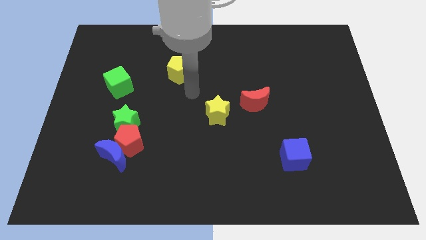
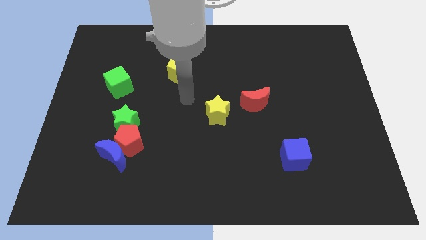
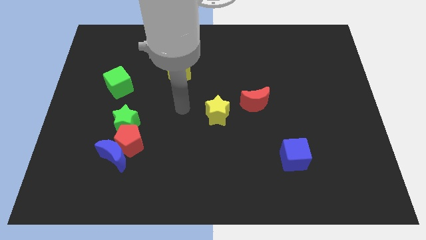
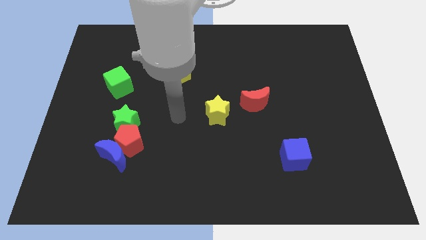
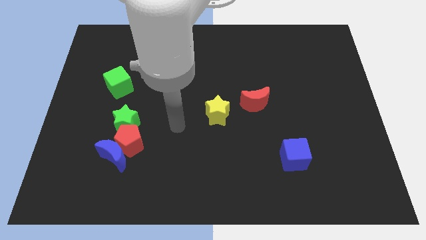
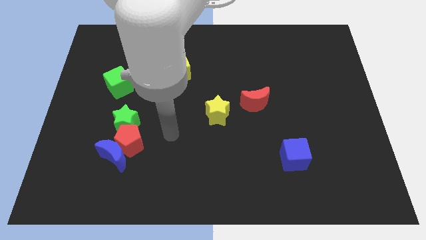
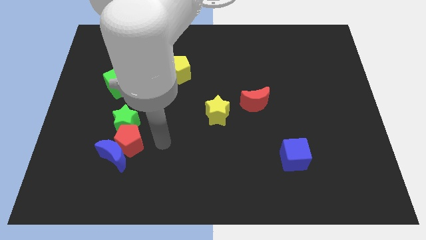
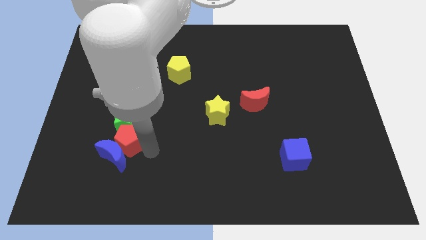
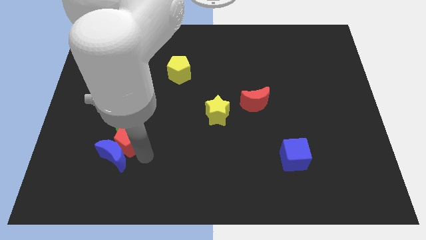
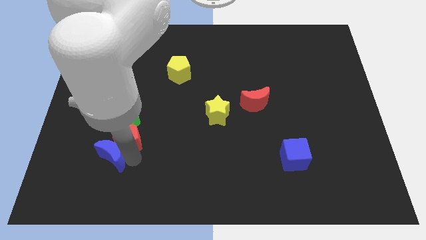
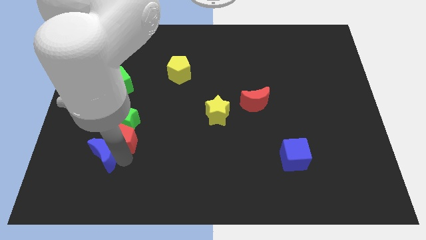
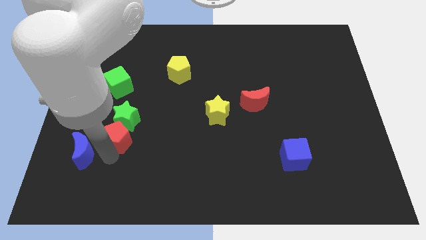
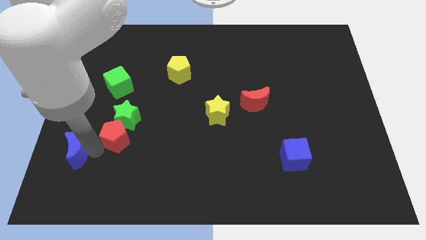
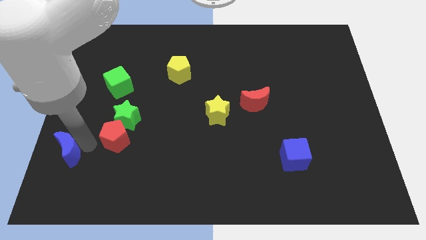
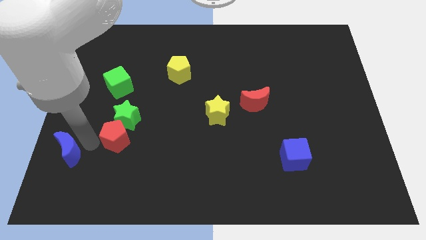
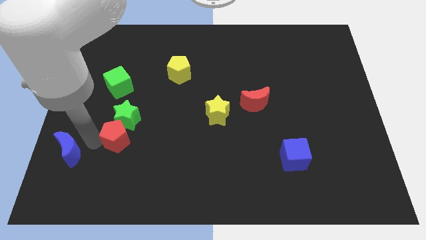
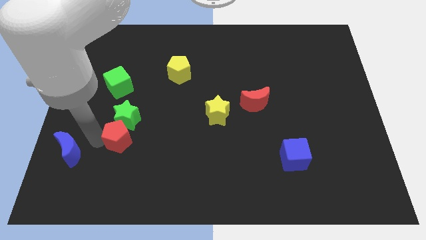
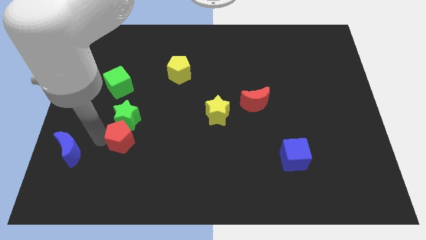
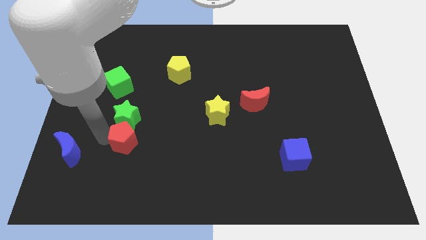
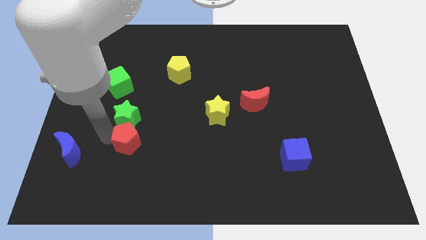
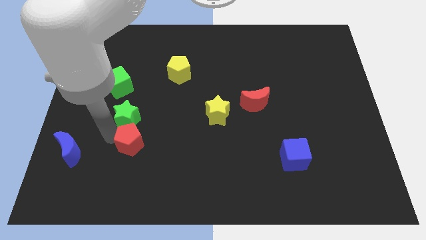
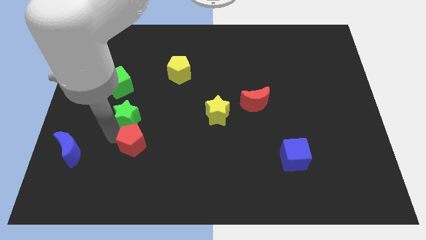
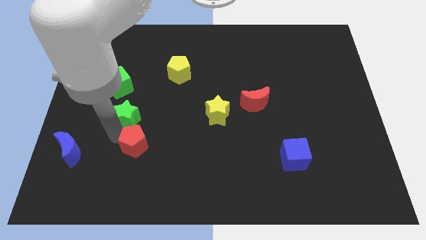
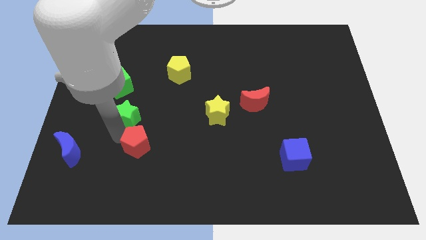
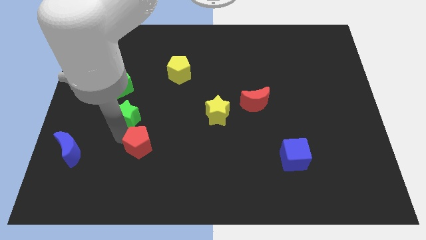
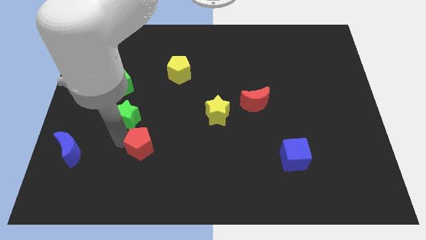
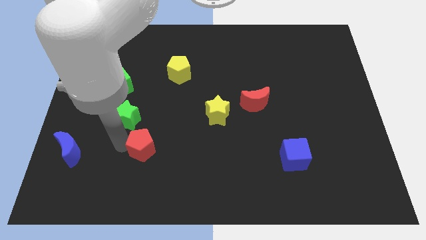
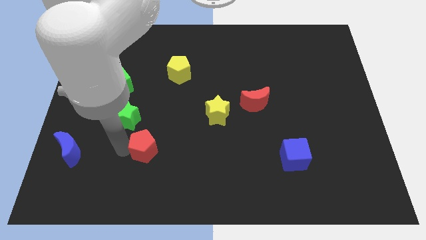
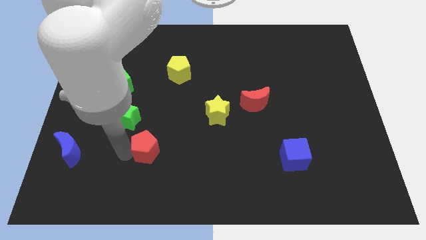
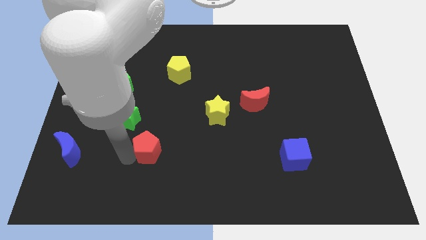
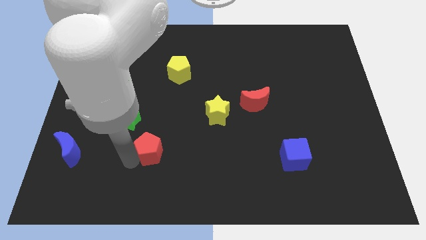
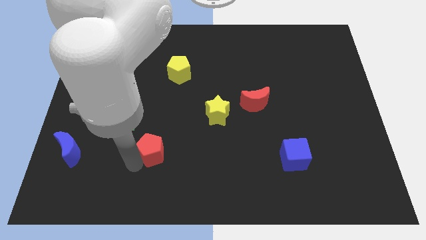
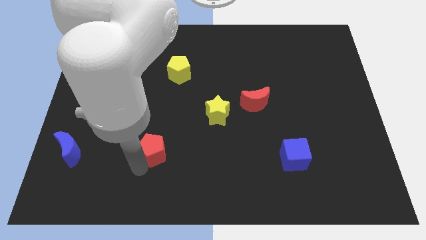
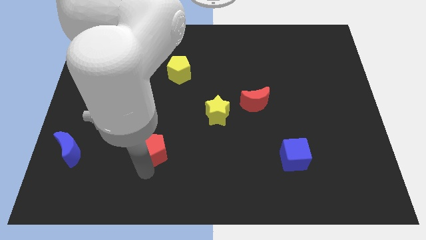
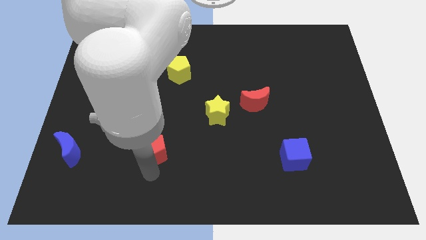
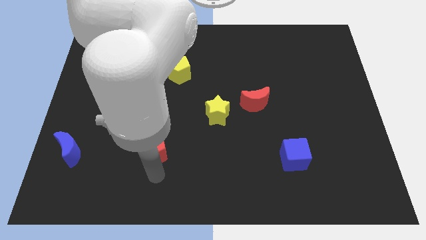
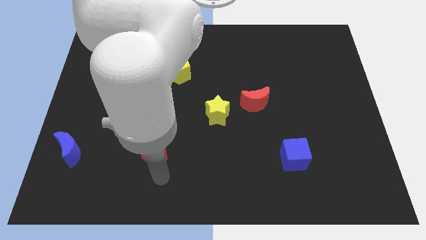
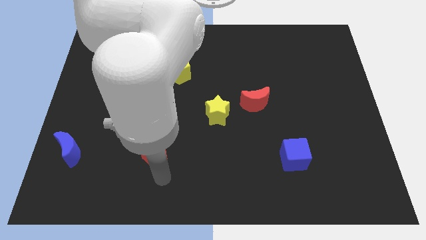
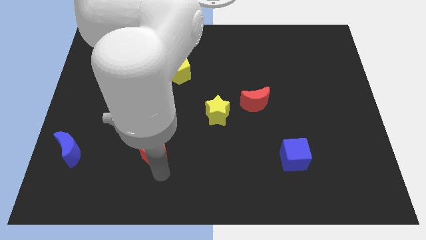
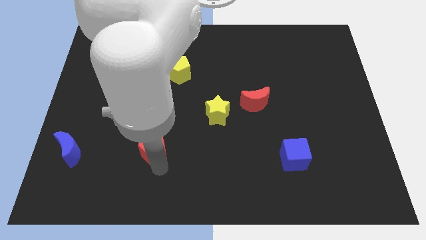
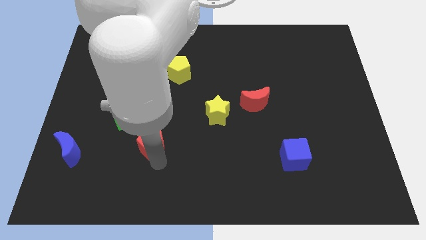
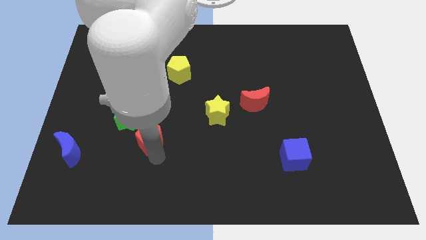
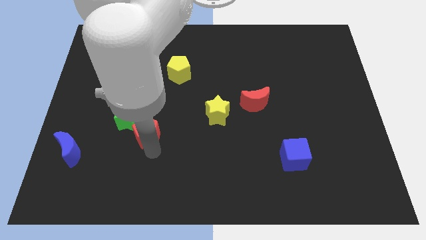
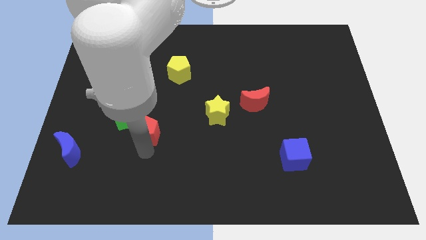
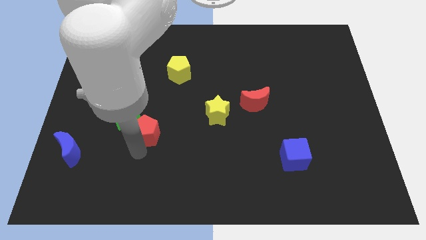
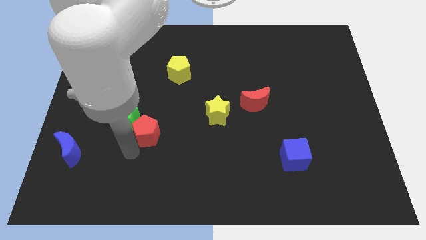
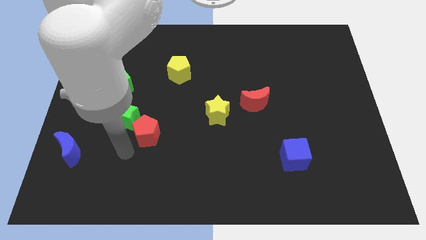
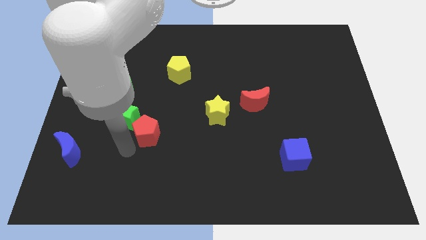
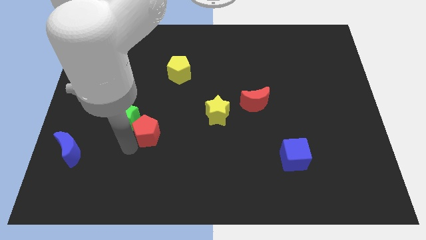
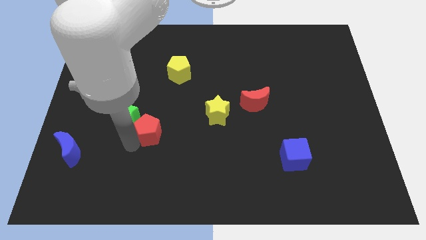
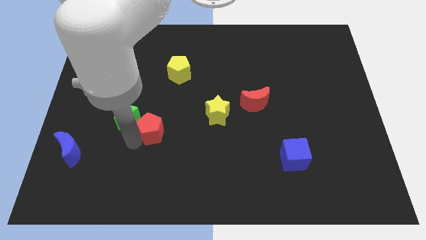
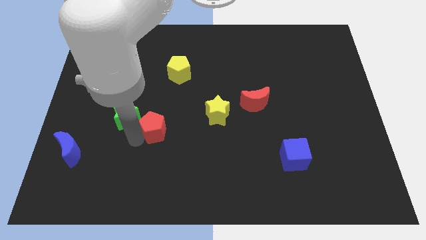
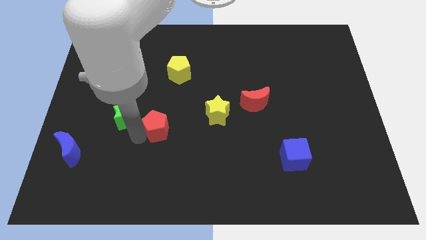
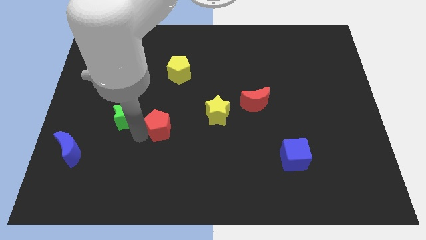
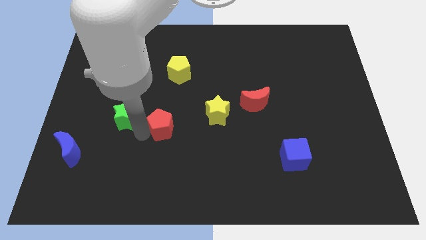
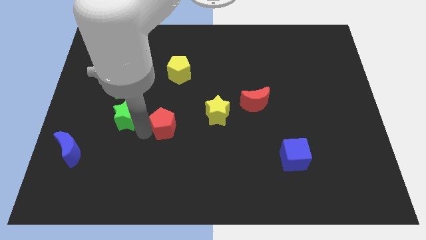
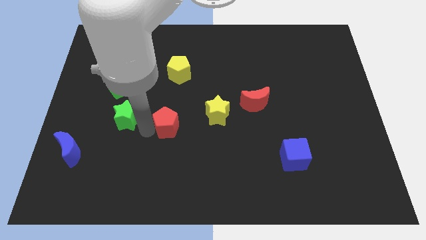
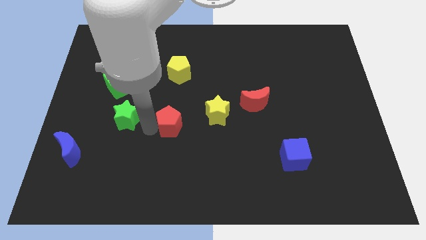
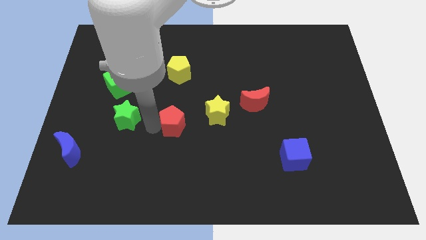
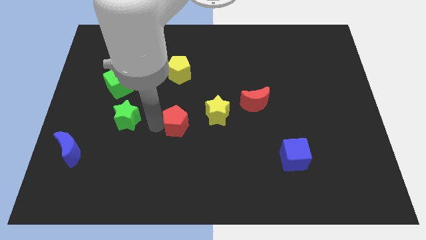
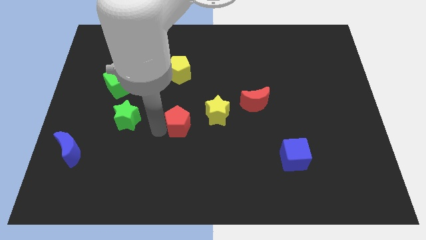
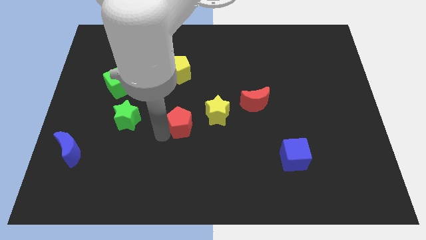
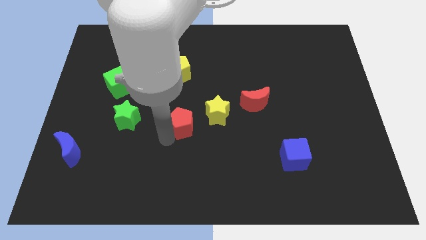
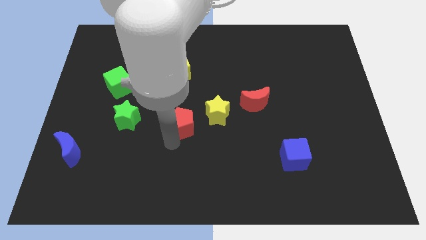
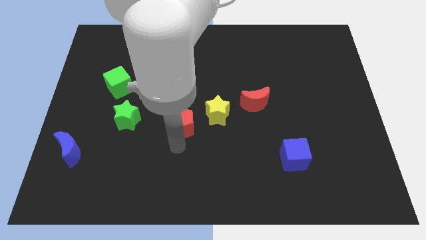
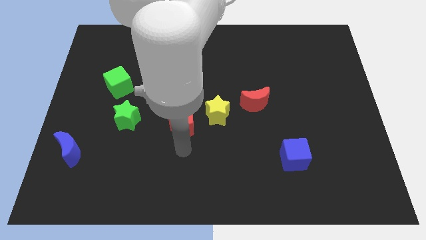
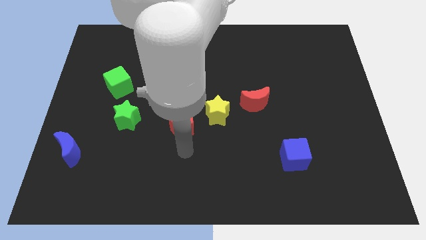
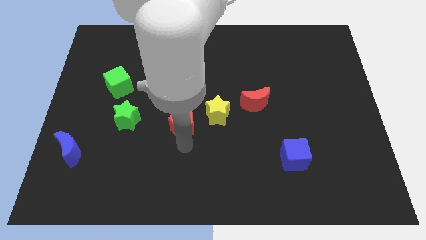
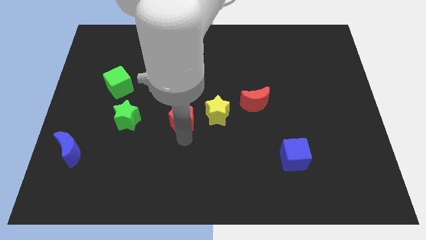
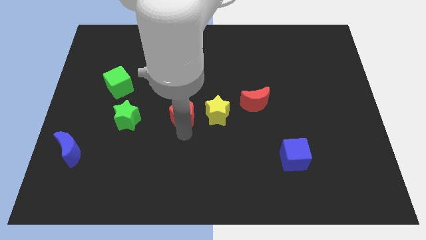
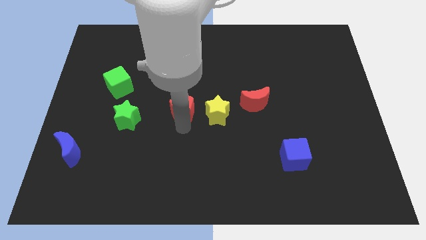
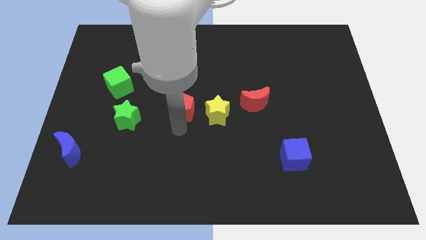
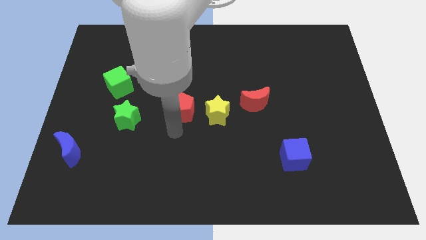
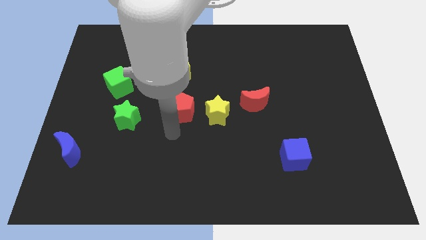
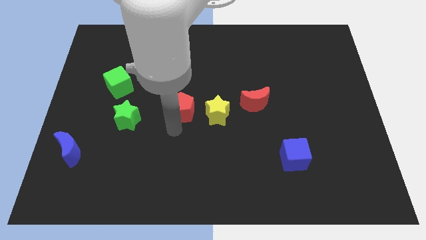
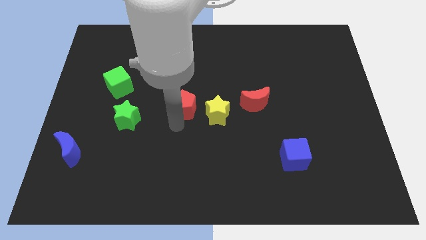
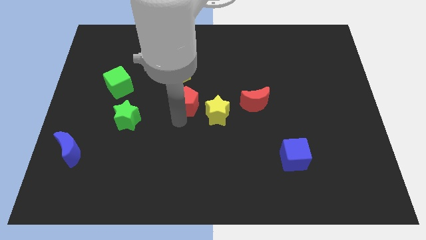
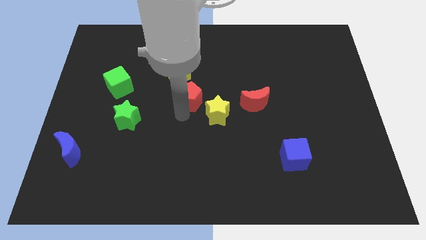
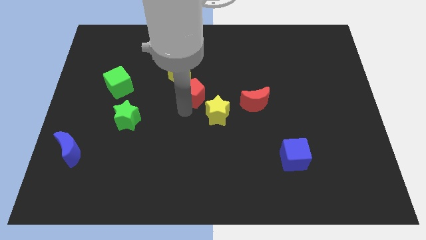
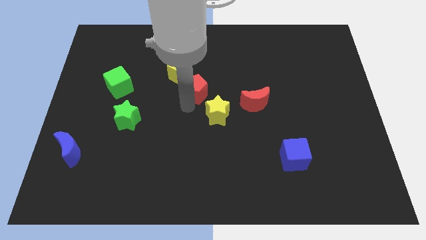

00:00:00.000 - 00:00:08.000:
slide the red pentagon up and then right

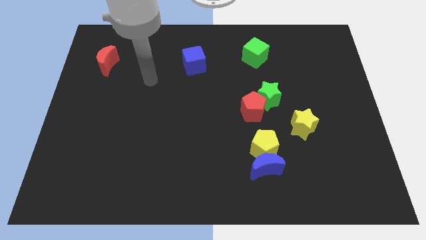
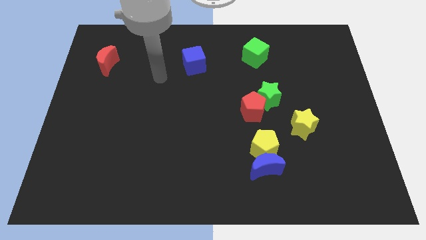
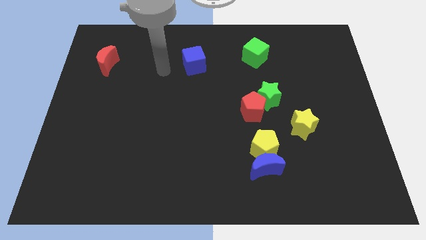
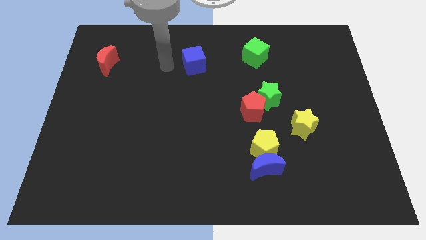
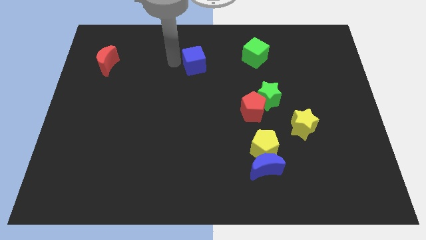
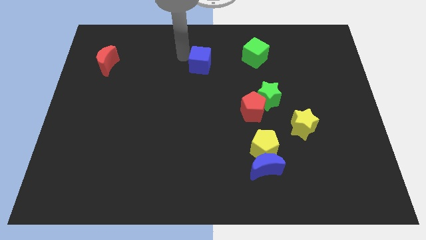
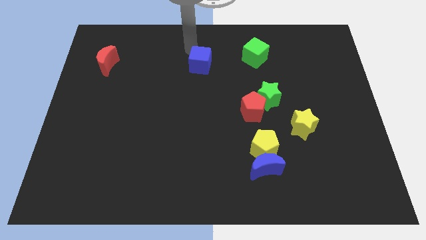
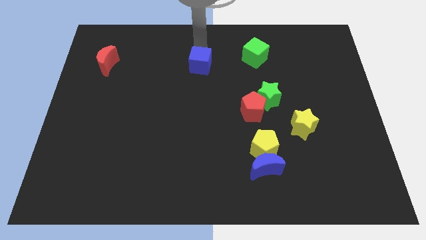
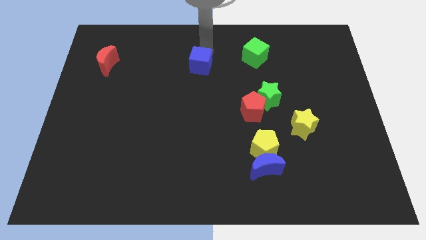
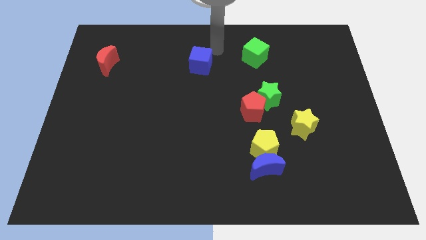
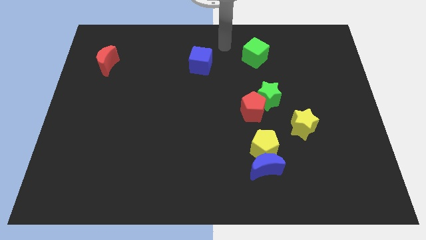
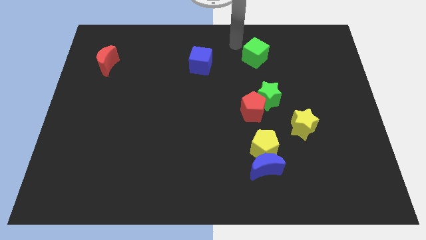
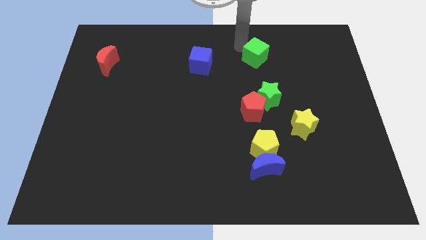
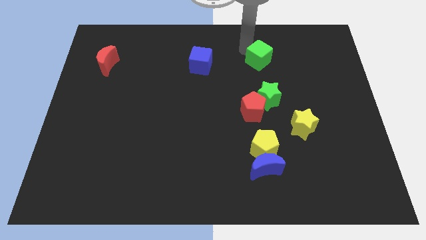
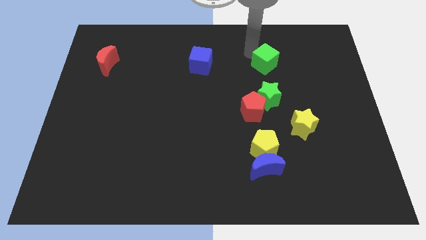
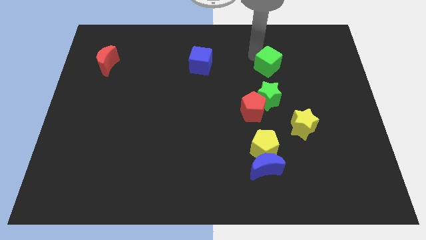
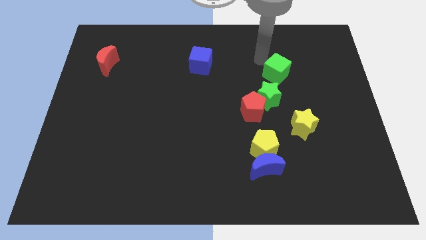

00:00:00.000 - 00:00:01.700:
slide the green cube down and to the right a bit
